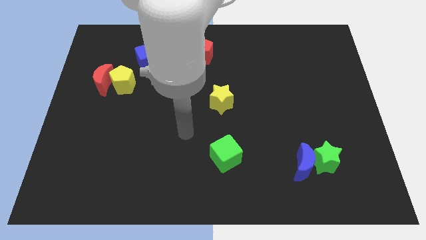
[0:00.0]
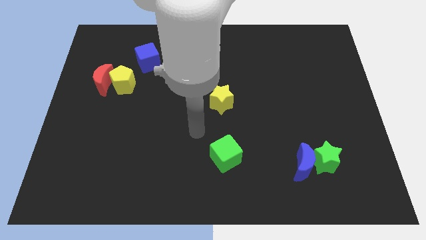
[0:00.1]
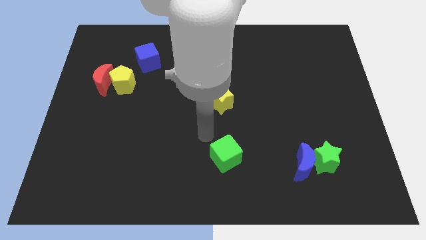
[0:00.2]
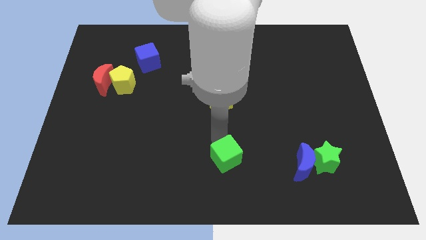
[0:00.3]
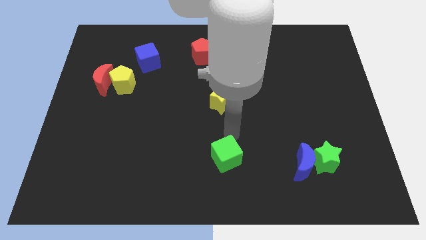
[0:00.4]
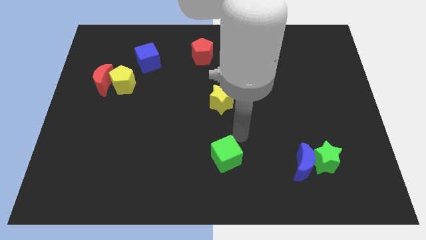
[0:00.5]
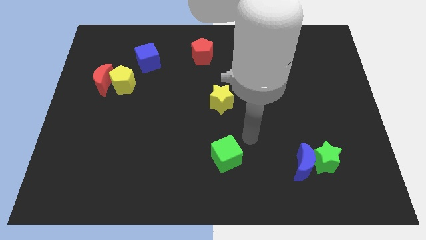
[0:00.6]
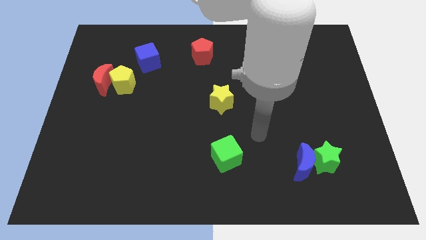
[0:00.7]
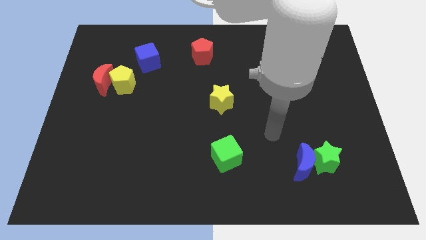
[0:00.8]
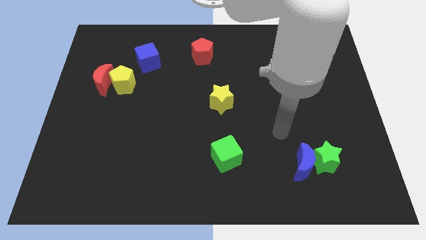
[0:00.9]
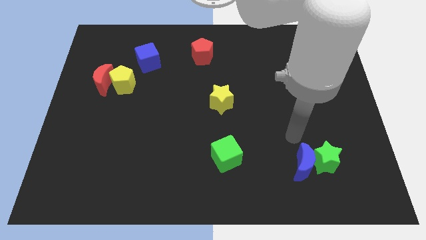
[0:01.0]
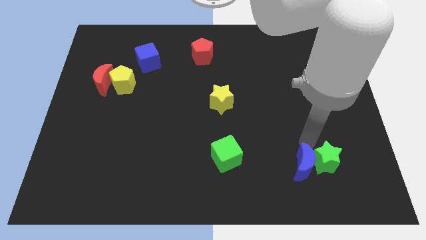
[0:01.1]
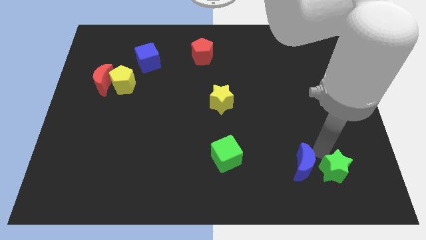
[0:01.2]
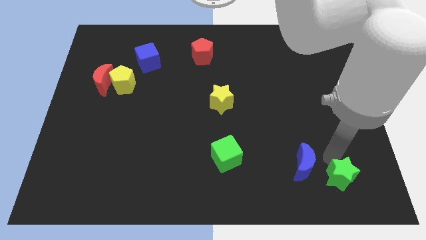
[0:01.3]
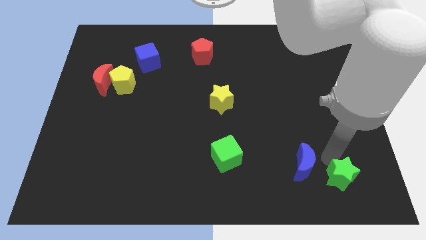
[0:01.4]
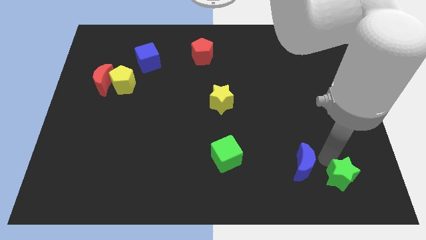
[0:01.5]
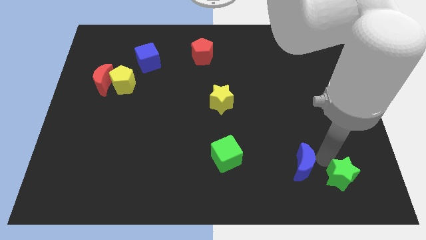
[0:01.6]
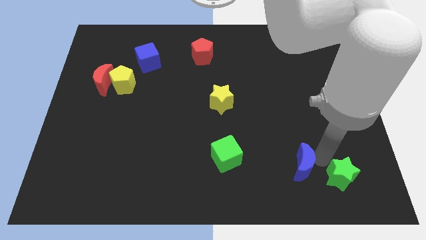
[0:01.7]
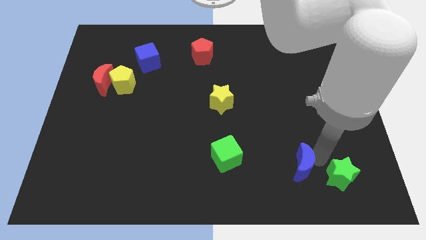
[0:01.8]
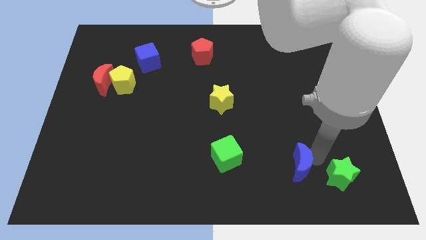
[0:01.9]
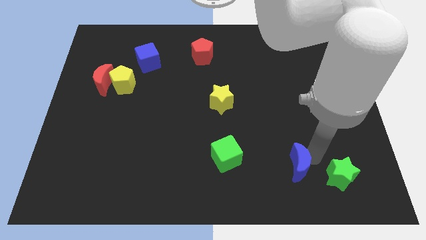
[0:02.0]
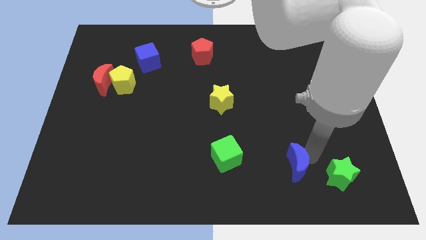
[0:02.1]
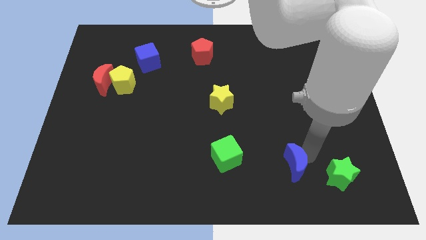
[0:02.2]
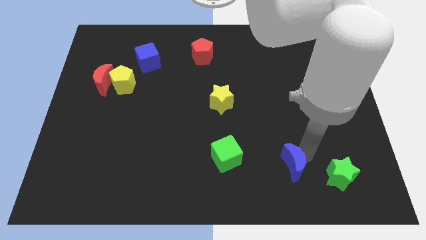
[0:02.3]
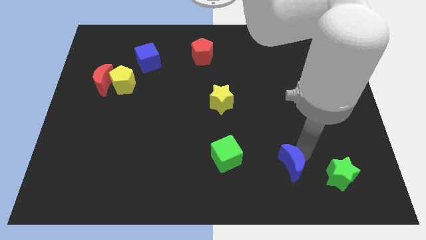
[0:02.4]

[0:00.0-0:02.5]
separate the blue moon from the green star

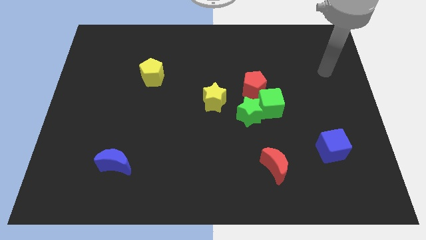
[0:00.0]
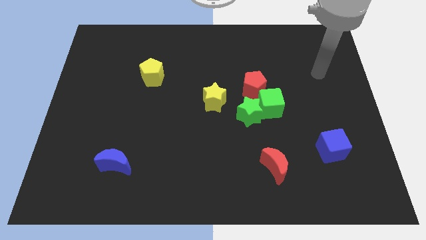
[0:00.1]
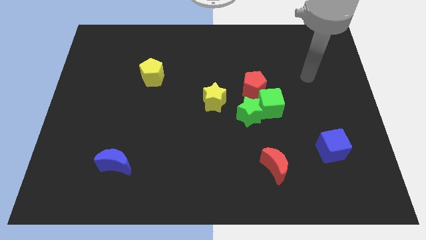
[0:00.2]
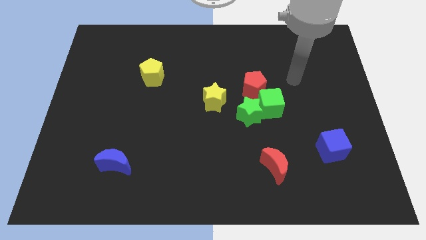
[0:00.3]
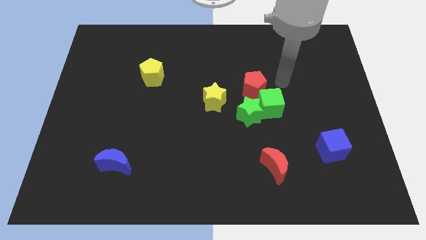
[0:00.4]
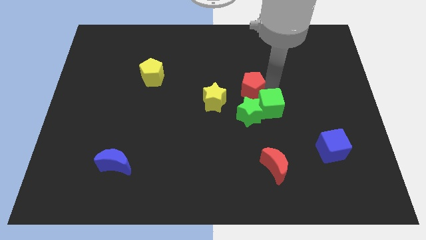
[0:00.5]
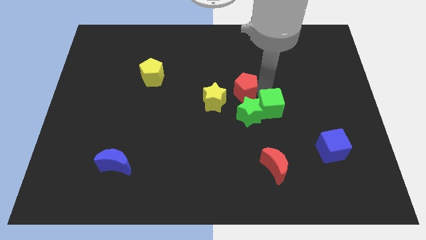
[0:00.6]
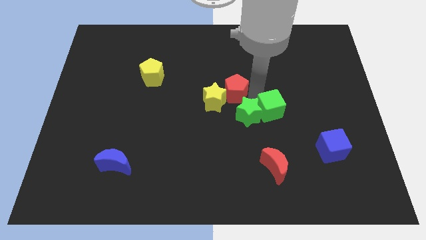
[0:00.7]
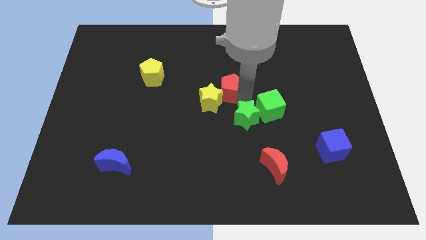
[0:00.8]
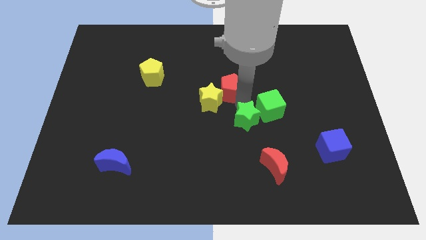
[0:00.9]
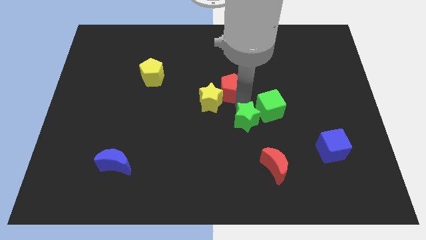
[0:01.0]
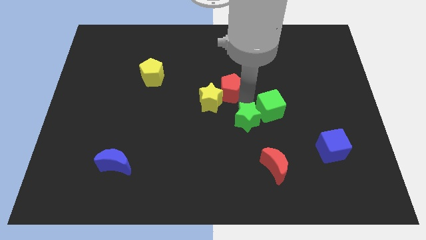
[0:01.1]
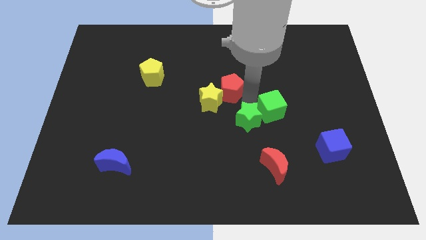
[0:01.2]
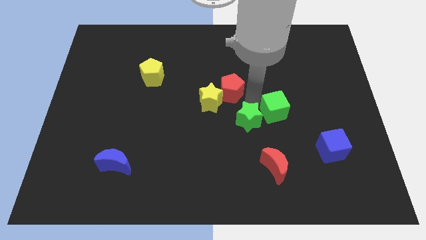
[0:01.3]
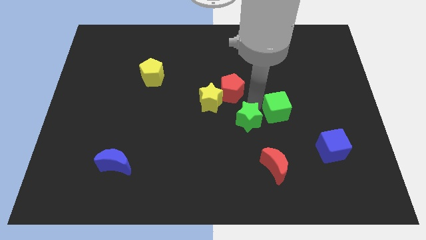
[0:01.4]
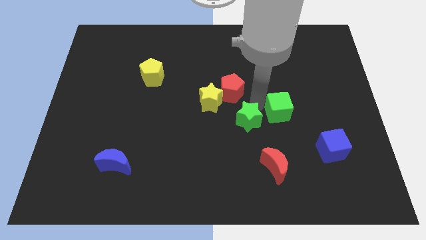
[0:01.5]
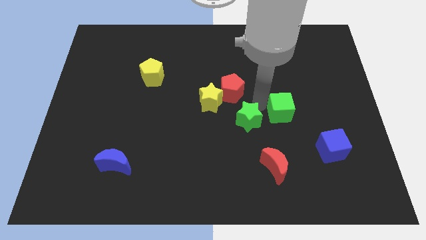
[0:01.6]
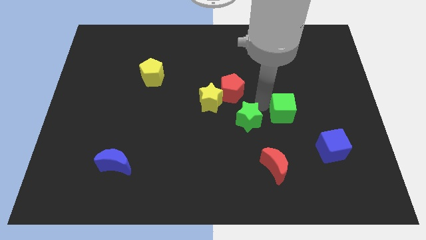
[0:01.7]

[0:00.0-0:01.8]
pull the green cube apart from the green star and red pentagon

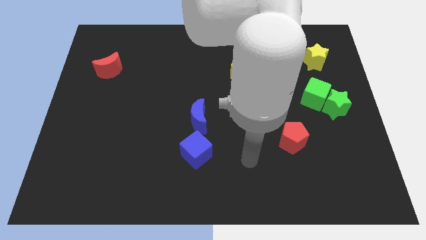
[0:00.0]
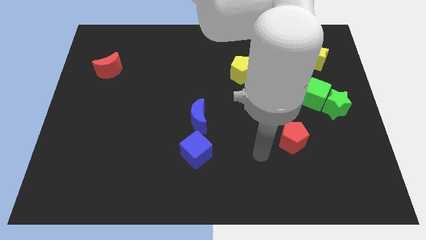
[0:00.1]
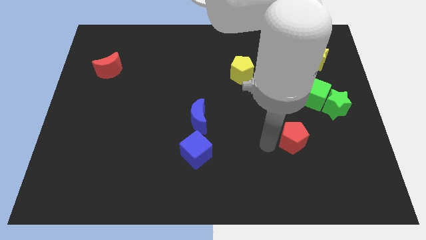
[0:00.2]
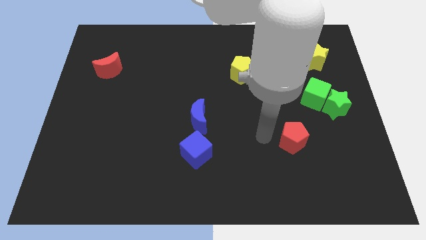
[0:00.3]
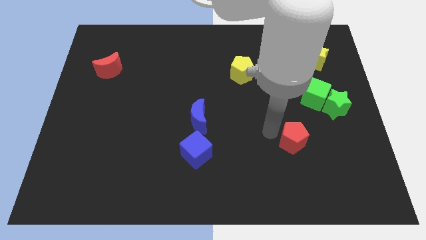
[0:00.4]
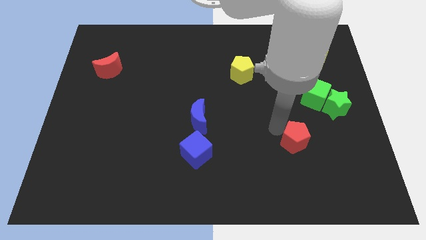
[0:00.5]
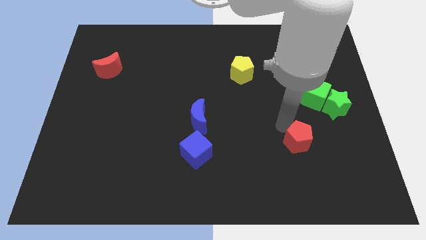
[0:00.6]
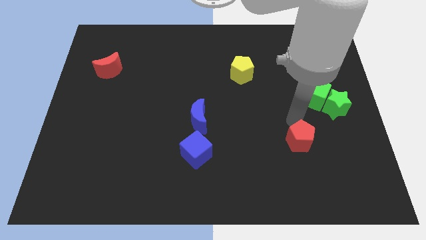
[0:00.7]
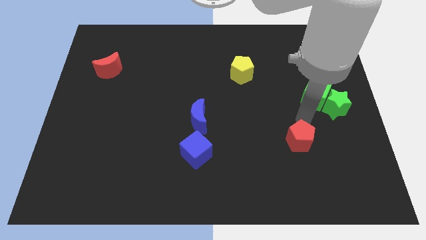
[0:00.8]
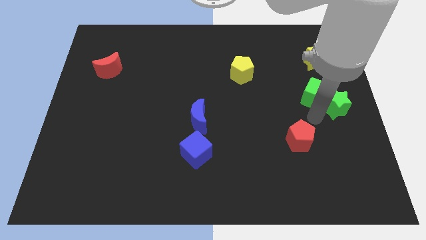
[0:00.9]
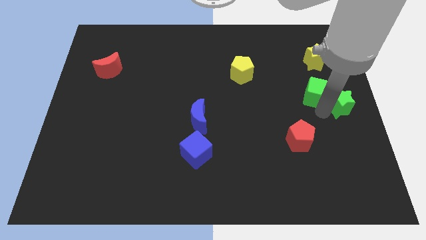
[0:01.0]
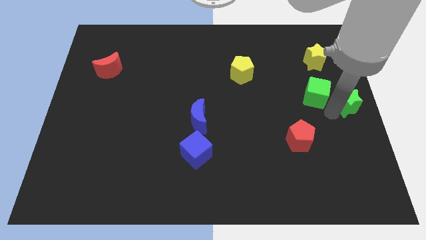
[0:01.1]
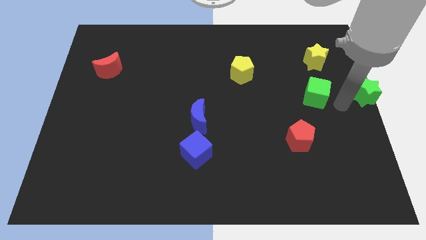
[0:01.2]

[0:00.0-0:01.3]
separate the green cube from the green star

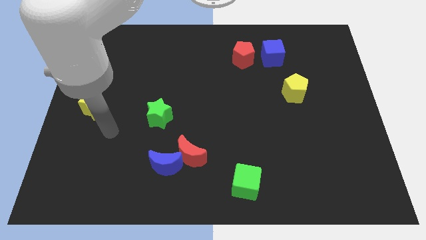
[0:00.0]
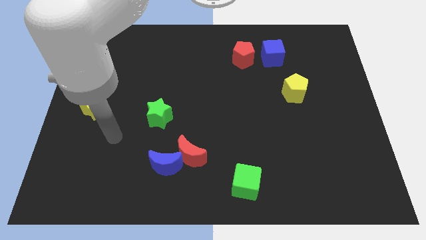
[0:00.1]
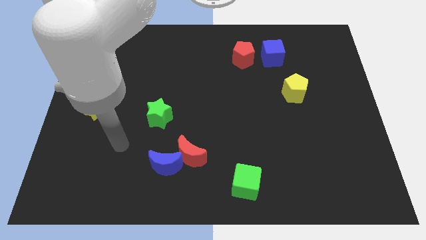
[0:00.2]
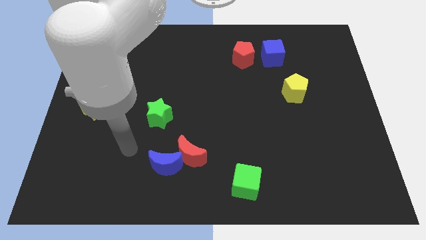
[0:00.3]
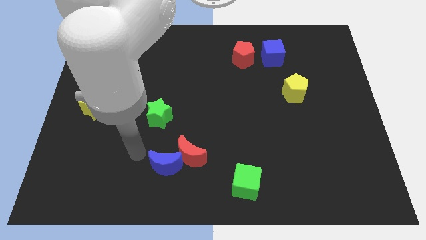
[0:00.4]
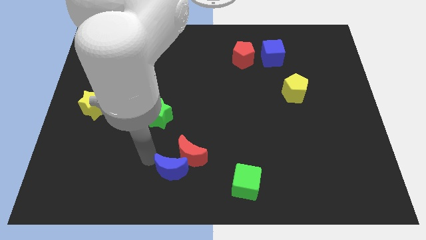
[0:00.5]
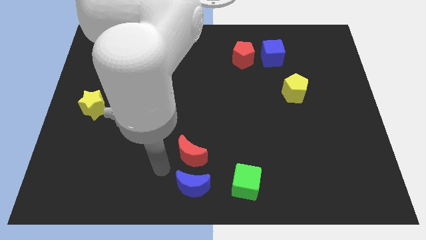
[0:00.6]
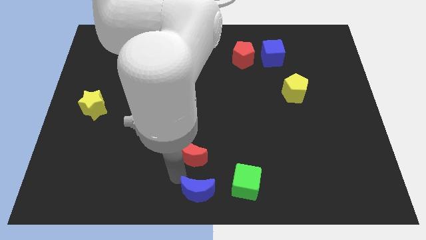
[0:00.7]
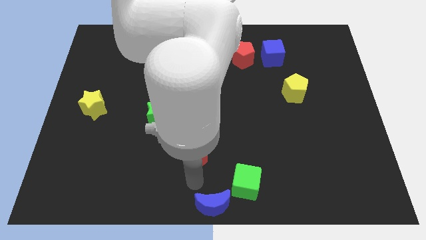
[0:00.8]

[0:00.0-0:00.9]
move the red moon away from the blue moon

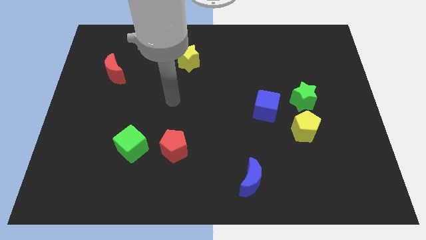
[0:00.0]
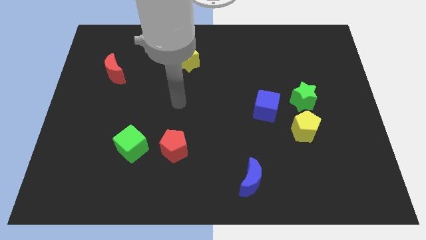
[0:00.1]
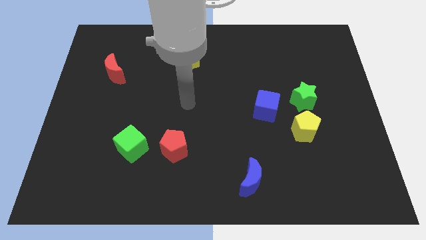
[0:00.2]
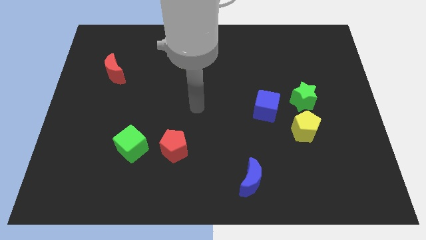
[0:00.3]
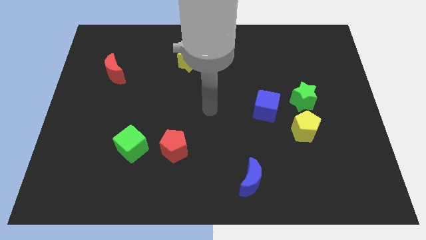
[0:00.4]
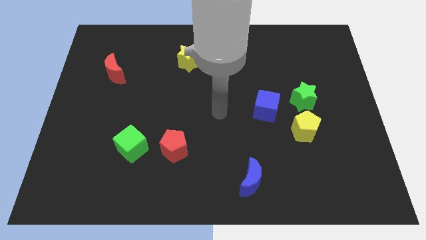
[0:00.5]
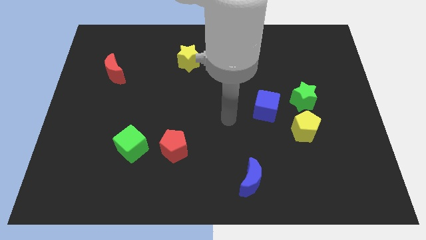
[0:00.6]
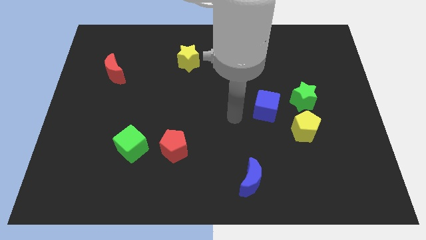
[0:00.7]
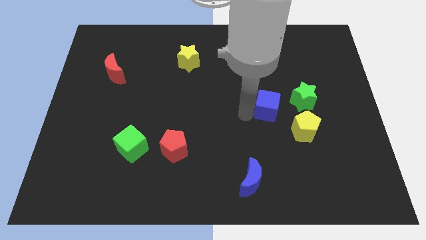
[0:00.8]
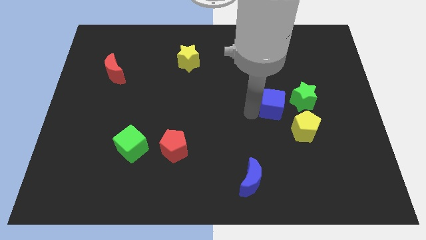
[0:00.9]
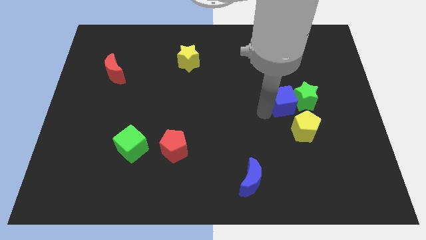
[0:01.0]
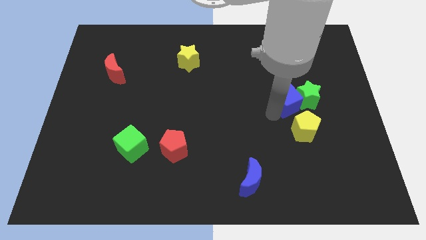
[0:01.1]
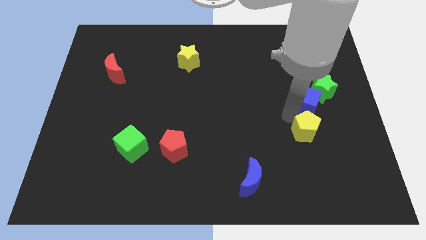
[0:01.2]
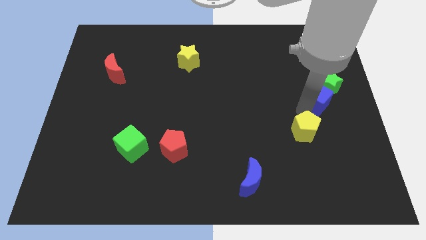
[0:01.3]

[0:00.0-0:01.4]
move the green star away from the yellow pentagon and blue cube

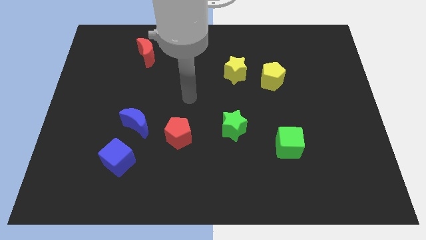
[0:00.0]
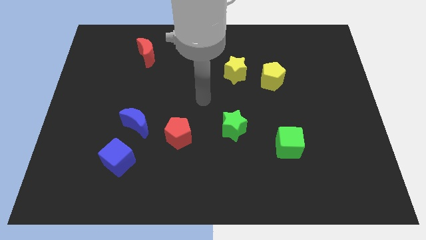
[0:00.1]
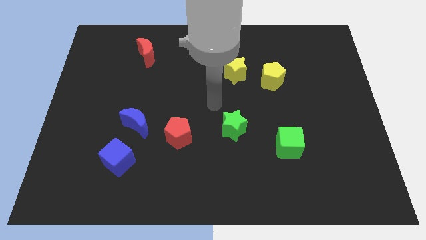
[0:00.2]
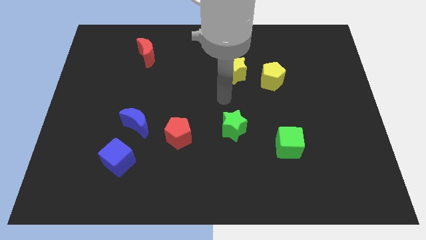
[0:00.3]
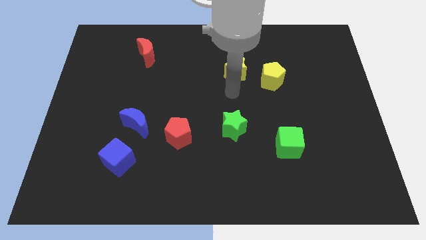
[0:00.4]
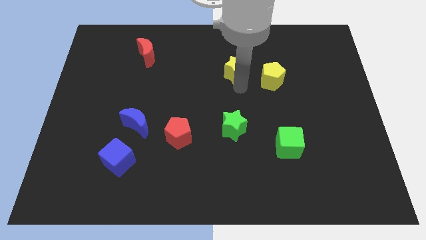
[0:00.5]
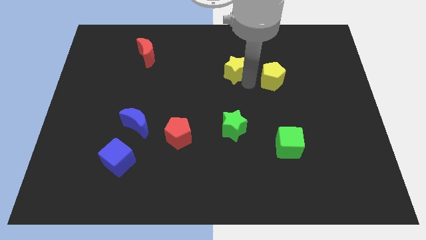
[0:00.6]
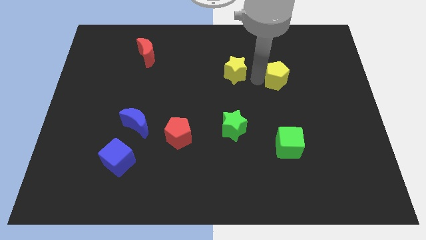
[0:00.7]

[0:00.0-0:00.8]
pull the yellow star apart from the yellow pentagon

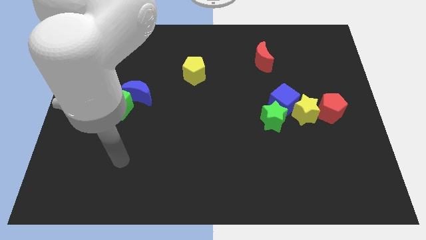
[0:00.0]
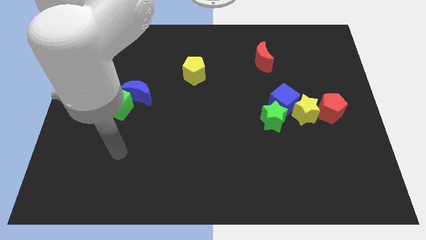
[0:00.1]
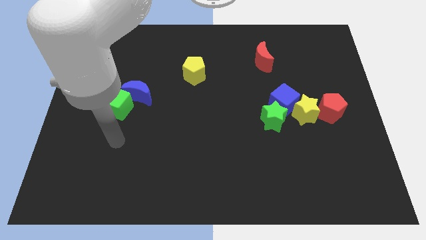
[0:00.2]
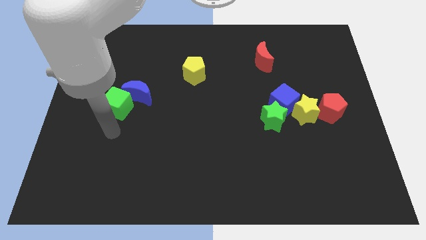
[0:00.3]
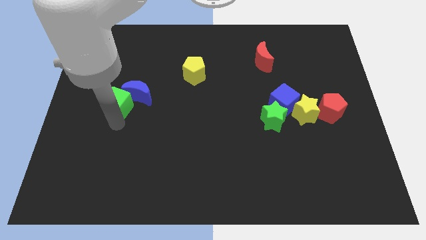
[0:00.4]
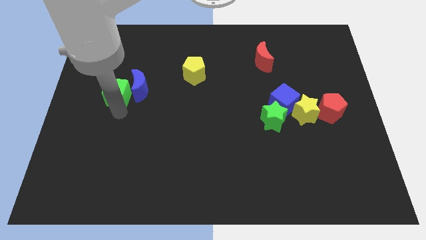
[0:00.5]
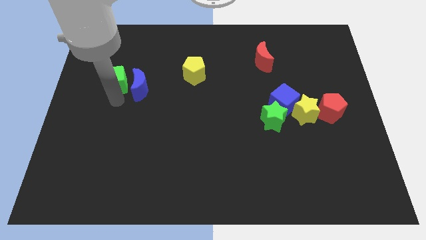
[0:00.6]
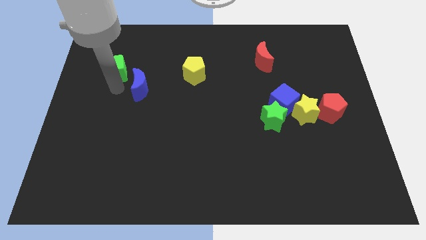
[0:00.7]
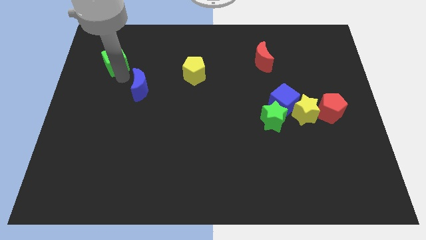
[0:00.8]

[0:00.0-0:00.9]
pull the blue moon apart from the green cube
